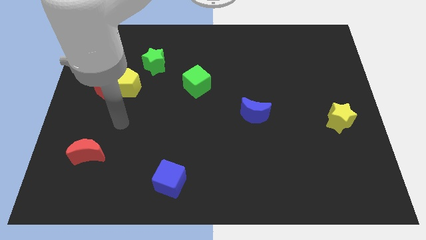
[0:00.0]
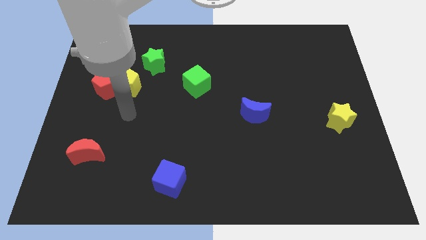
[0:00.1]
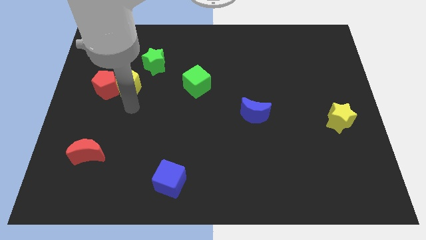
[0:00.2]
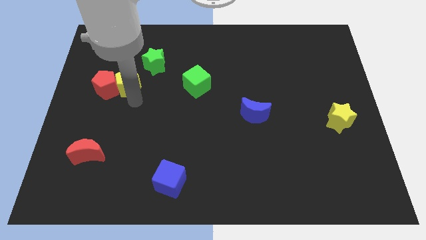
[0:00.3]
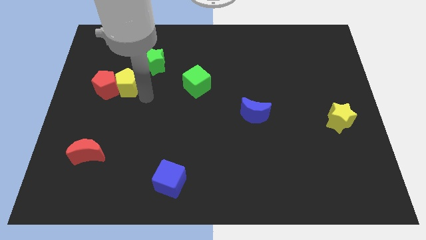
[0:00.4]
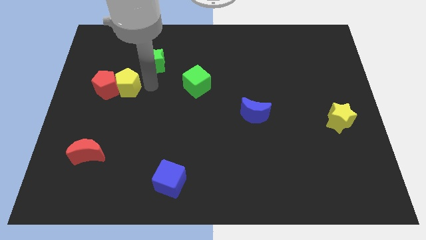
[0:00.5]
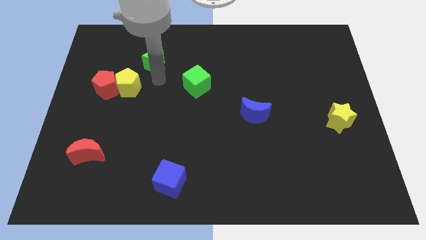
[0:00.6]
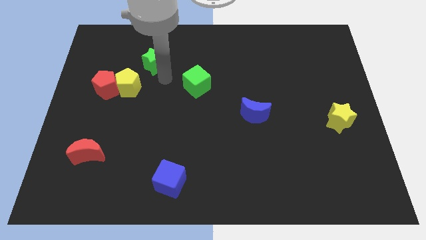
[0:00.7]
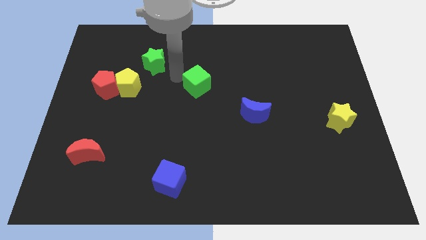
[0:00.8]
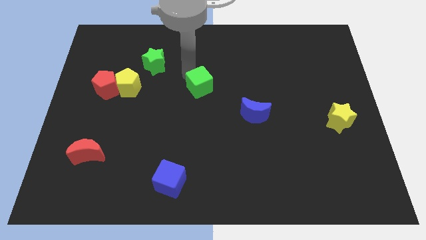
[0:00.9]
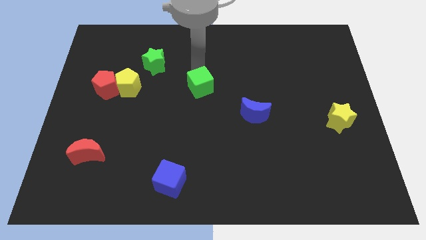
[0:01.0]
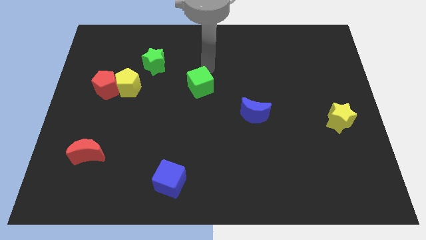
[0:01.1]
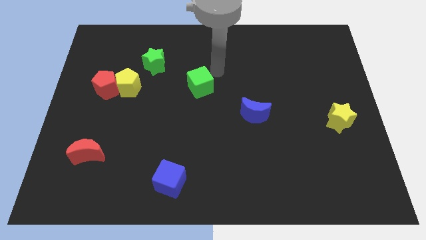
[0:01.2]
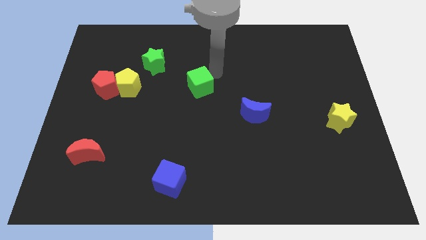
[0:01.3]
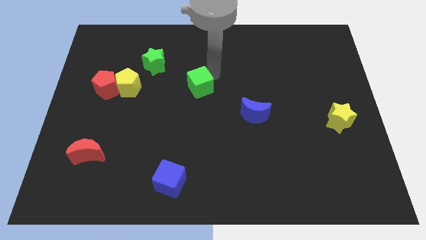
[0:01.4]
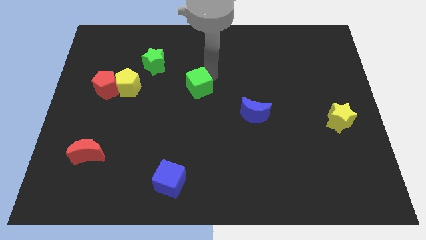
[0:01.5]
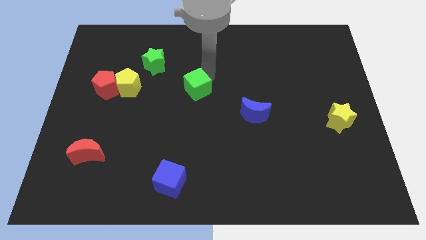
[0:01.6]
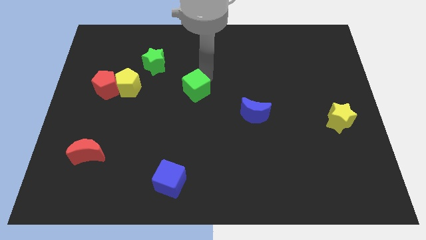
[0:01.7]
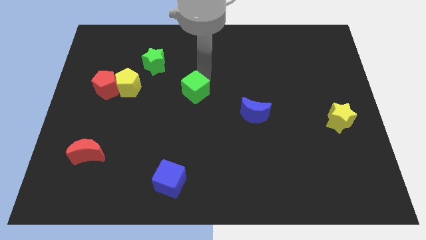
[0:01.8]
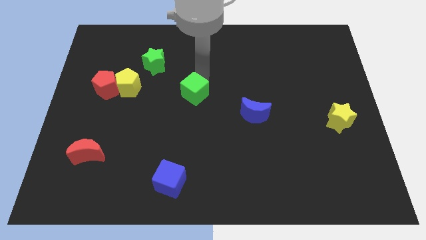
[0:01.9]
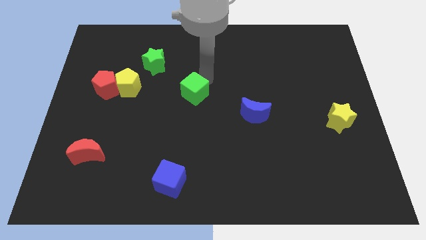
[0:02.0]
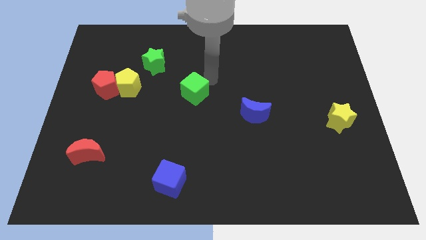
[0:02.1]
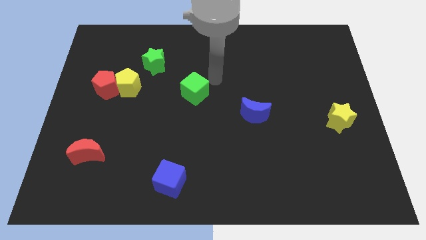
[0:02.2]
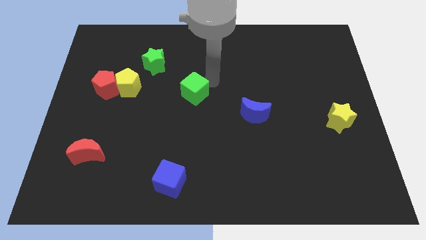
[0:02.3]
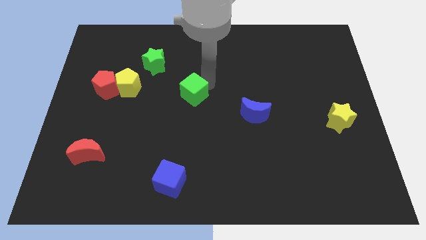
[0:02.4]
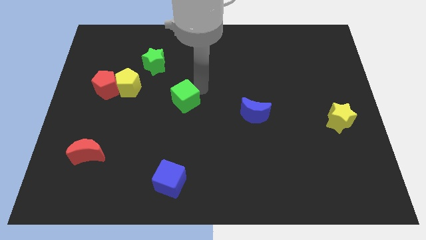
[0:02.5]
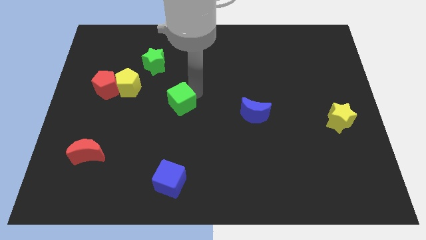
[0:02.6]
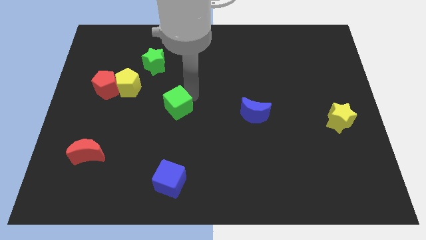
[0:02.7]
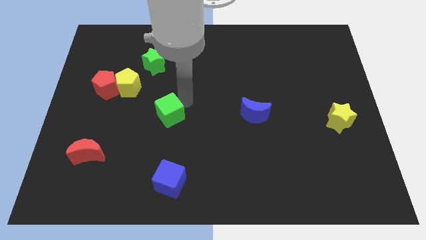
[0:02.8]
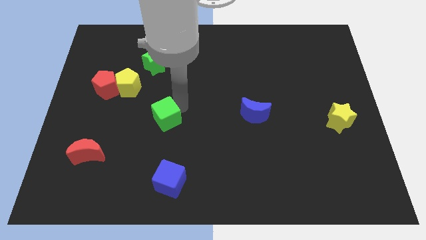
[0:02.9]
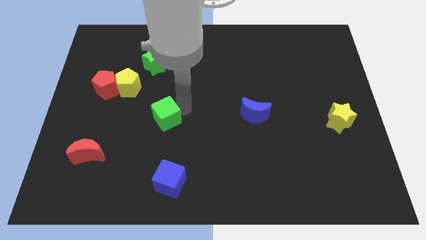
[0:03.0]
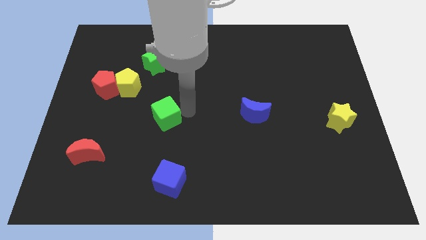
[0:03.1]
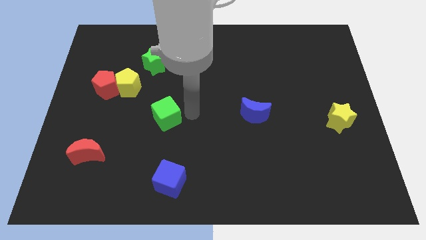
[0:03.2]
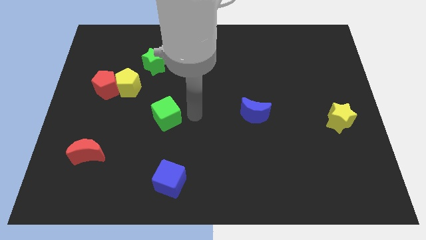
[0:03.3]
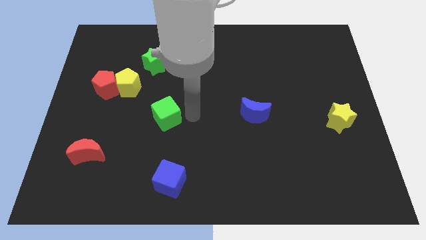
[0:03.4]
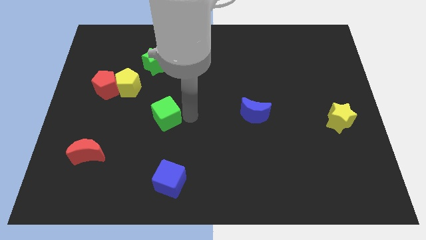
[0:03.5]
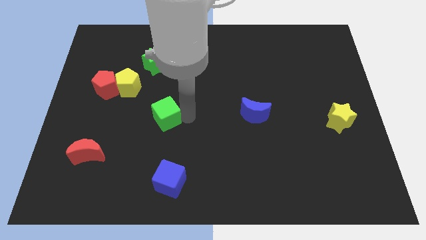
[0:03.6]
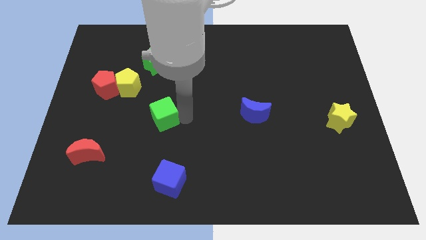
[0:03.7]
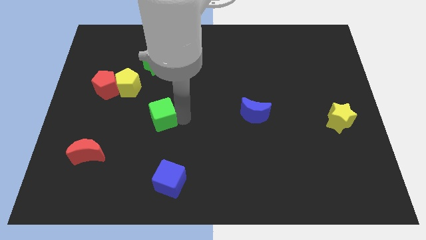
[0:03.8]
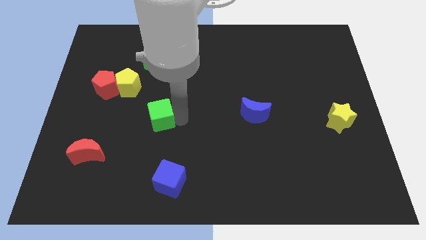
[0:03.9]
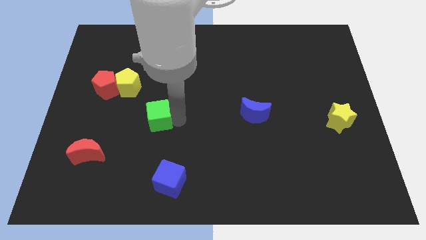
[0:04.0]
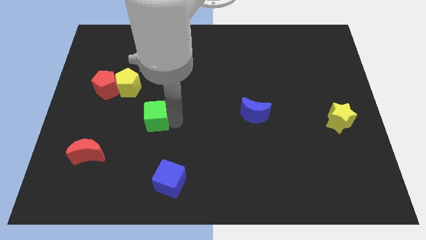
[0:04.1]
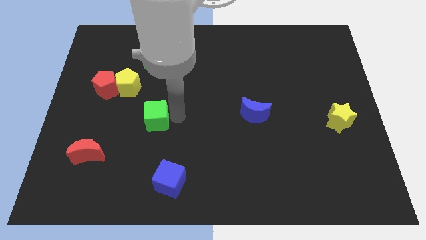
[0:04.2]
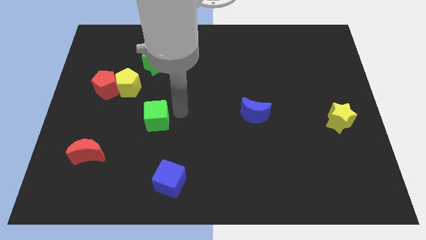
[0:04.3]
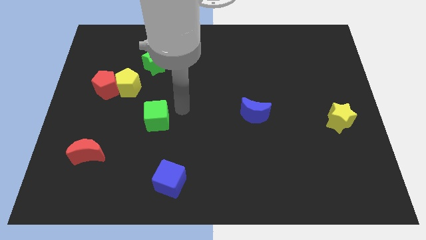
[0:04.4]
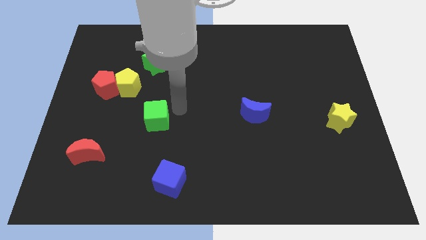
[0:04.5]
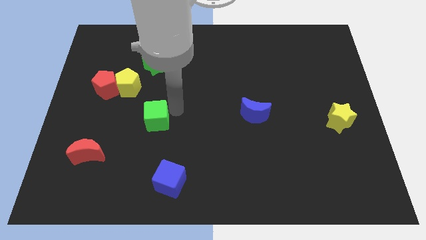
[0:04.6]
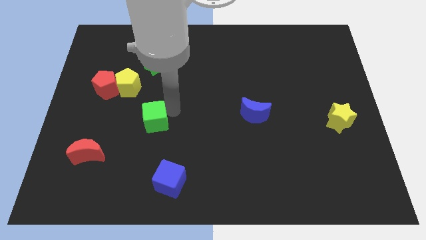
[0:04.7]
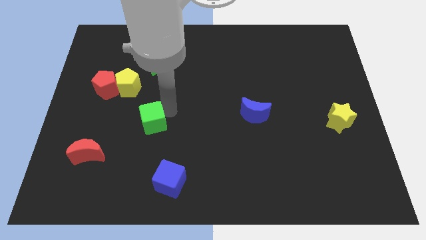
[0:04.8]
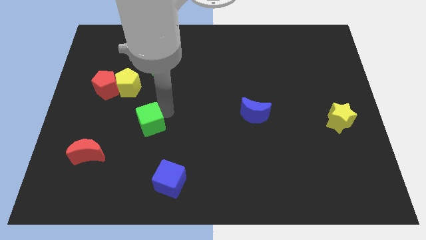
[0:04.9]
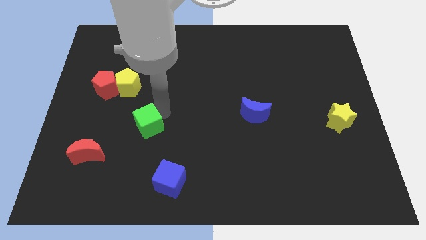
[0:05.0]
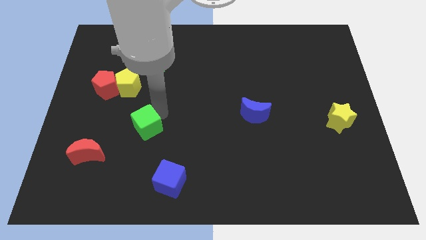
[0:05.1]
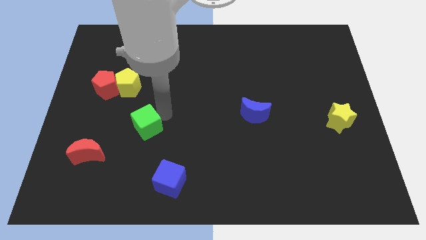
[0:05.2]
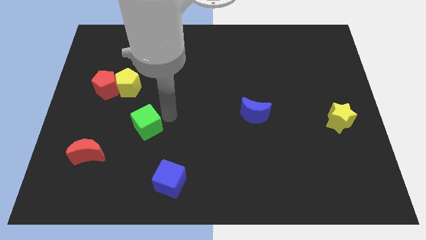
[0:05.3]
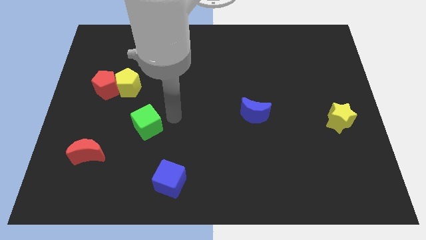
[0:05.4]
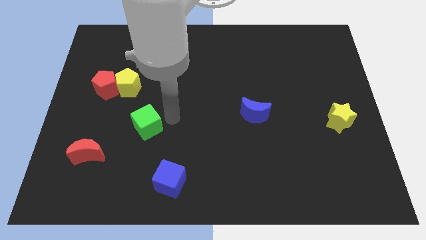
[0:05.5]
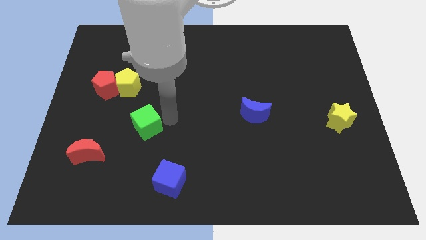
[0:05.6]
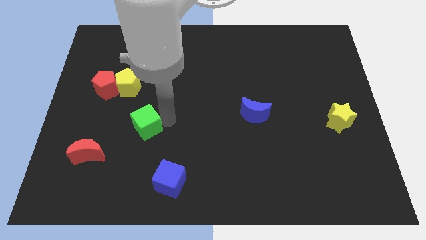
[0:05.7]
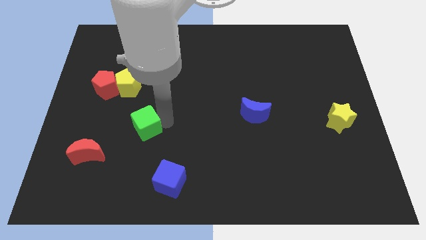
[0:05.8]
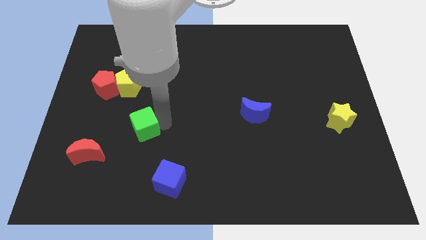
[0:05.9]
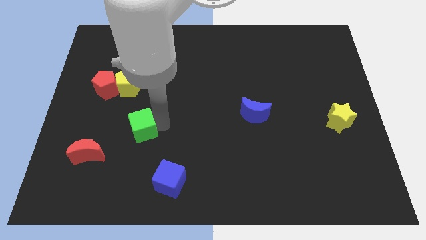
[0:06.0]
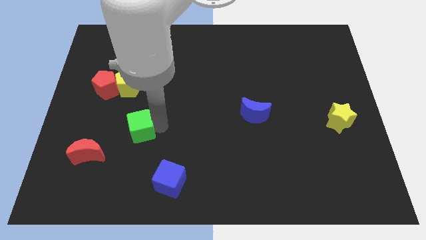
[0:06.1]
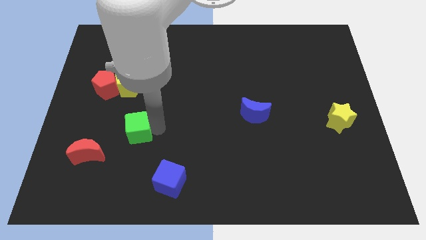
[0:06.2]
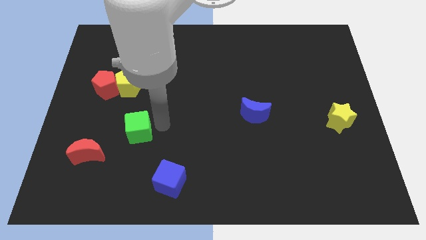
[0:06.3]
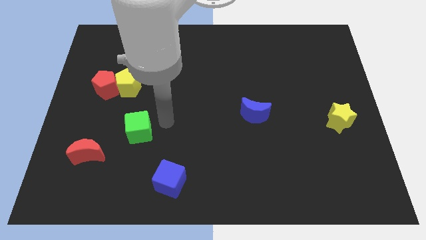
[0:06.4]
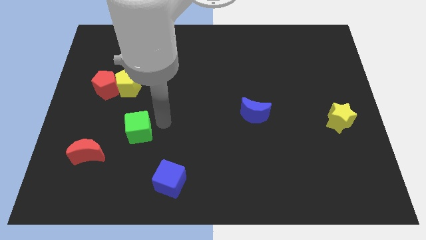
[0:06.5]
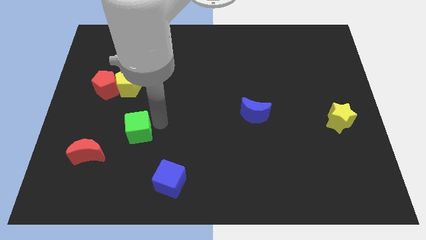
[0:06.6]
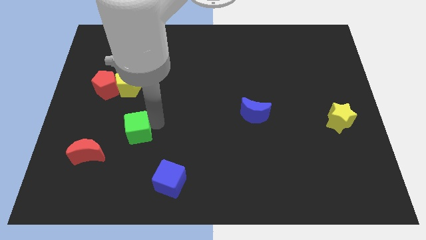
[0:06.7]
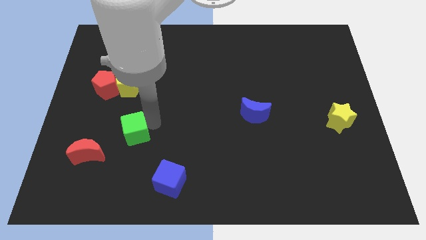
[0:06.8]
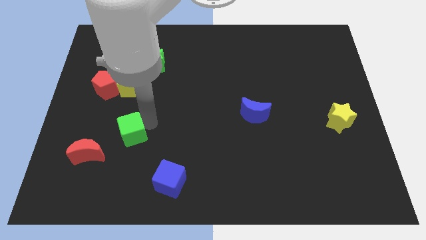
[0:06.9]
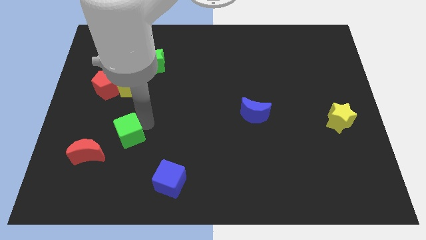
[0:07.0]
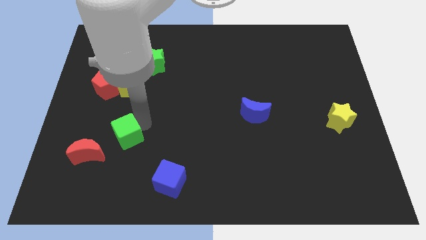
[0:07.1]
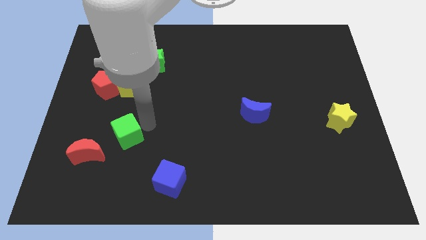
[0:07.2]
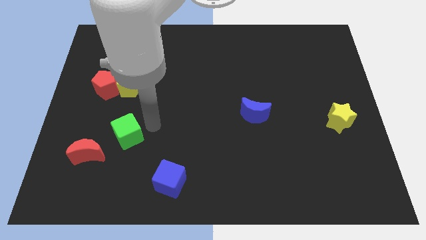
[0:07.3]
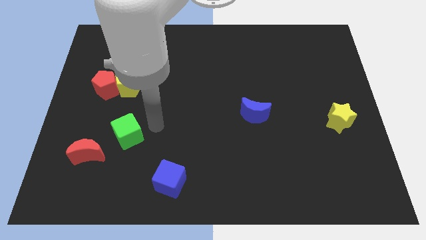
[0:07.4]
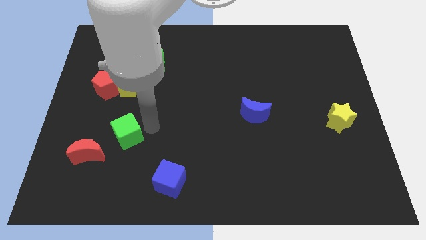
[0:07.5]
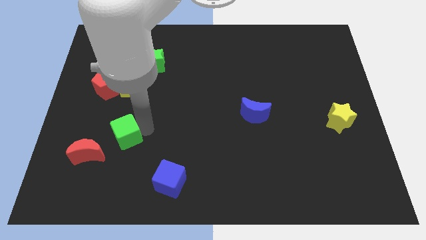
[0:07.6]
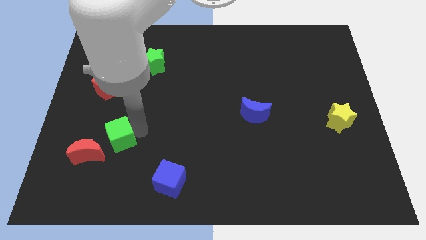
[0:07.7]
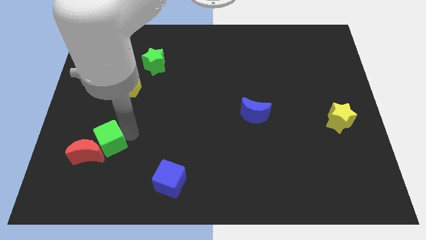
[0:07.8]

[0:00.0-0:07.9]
push the green cube to the red moon
